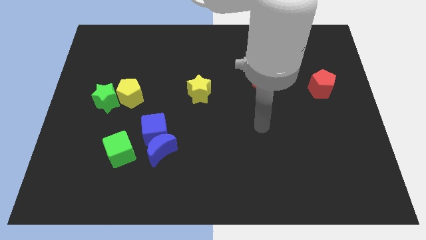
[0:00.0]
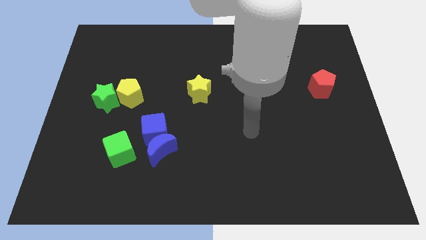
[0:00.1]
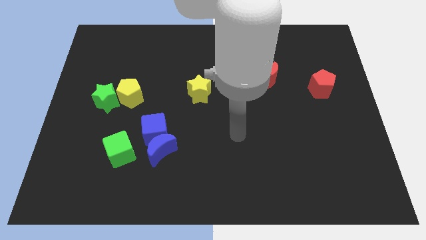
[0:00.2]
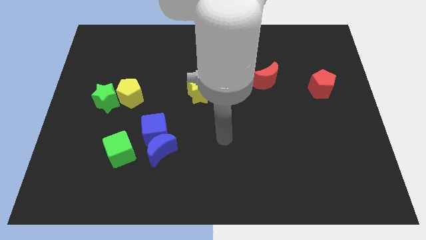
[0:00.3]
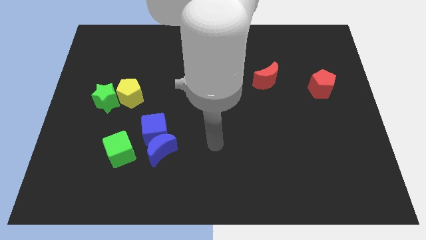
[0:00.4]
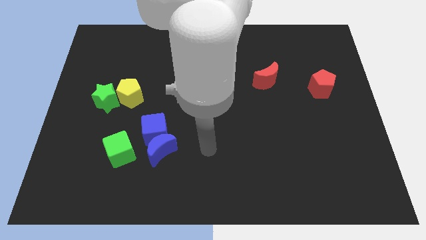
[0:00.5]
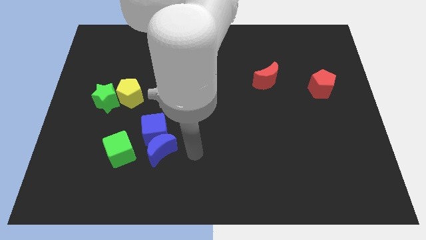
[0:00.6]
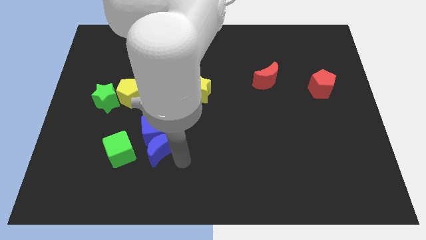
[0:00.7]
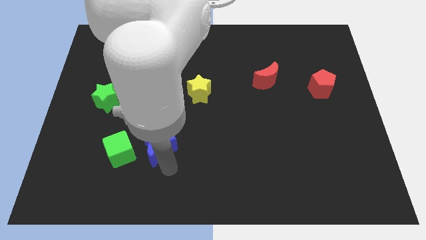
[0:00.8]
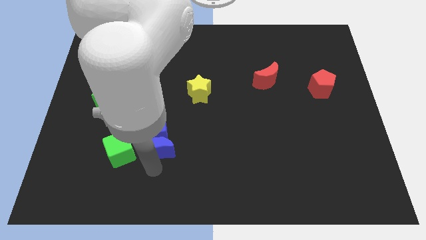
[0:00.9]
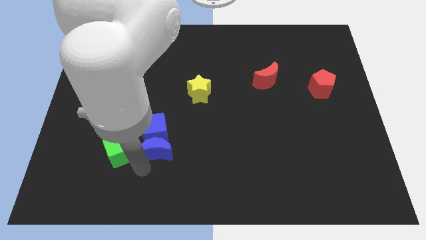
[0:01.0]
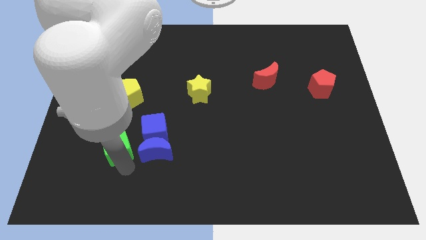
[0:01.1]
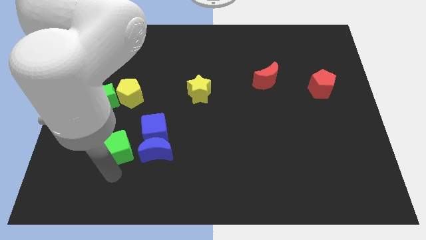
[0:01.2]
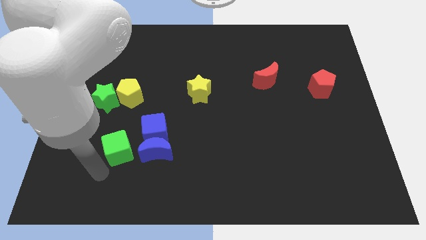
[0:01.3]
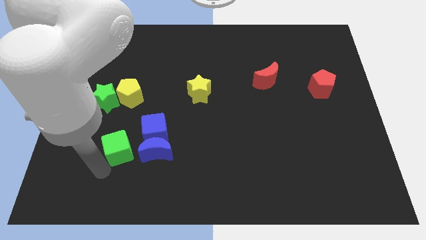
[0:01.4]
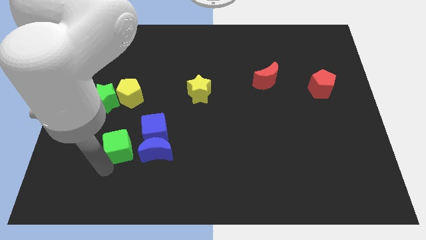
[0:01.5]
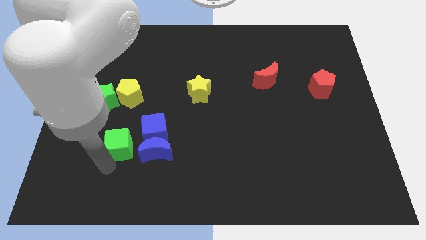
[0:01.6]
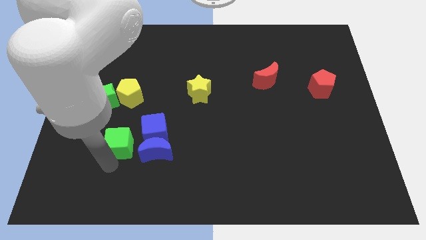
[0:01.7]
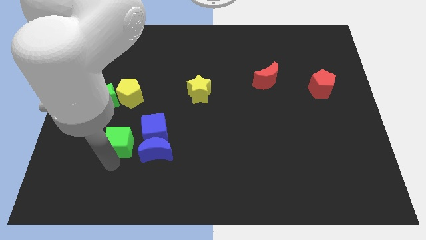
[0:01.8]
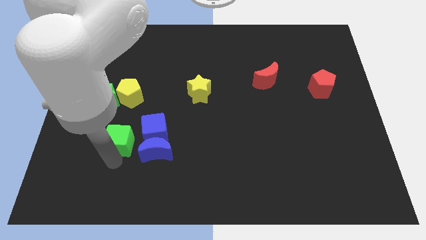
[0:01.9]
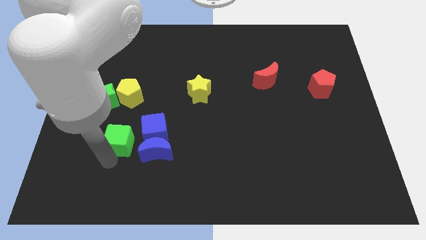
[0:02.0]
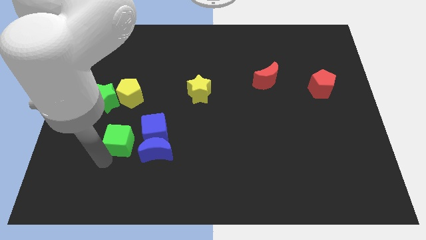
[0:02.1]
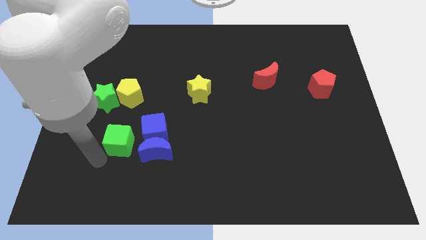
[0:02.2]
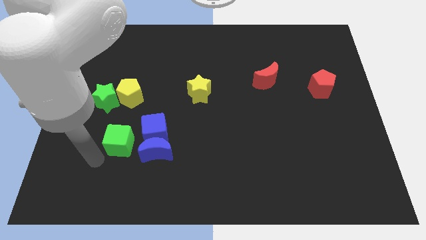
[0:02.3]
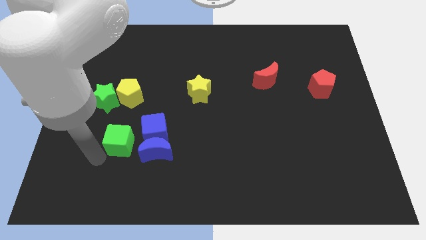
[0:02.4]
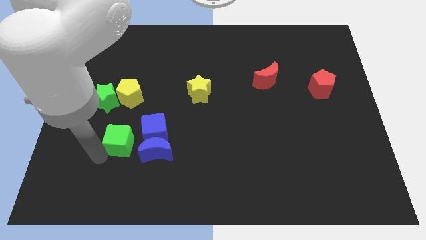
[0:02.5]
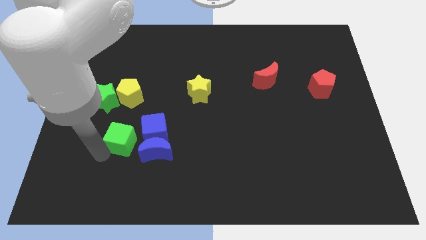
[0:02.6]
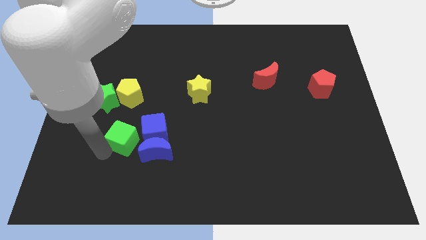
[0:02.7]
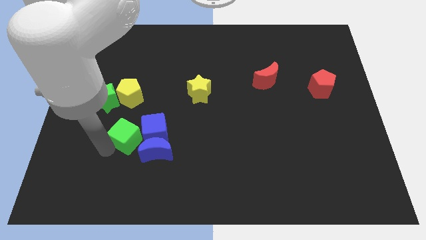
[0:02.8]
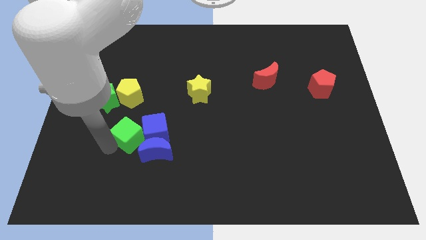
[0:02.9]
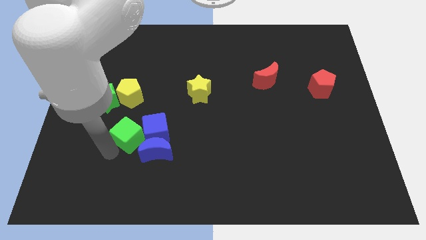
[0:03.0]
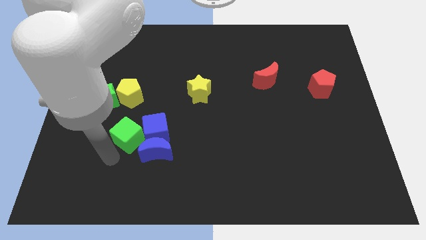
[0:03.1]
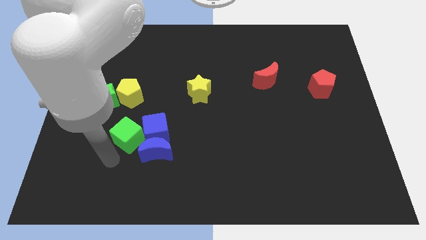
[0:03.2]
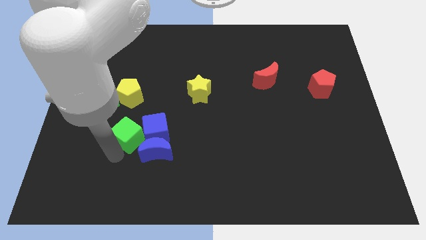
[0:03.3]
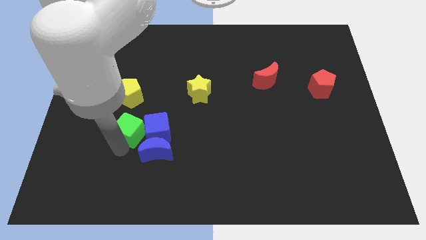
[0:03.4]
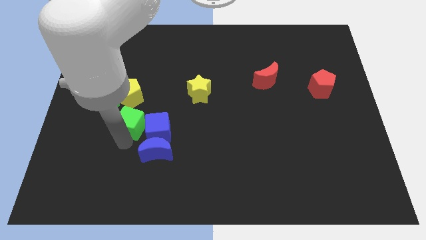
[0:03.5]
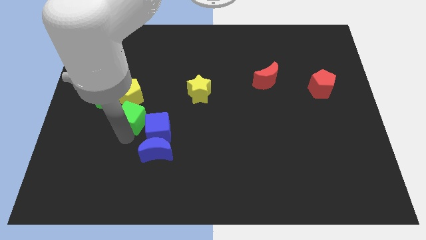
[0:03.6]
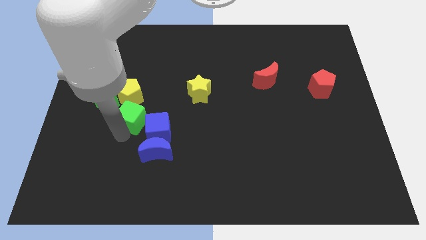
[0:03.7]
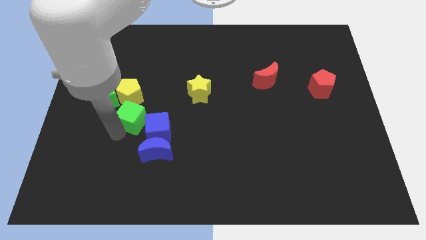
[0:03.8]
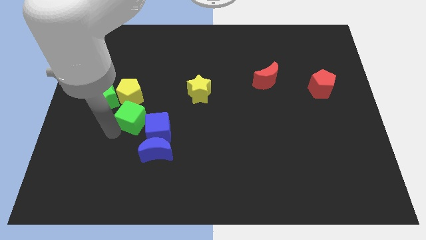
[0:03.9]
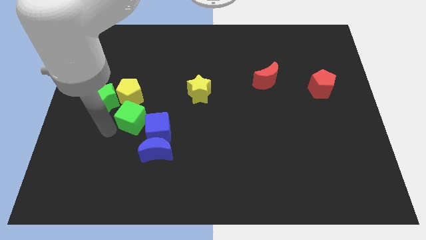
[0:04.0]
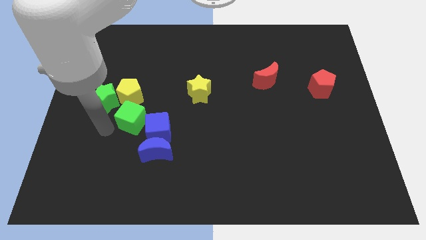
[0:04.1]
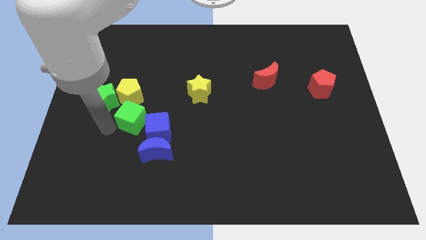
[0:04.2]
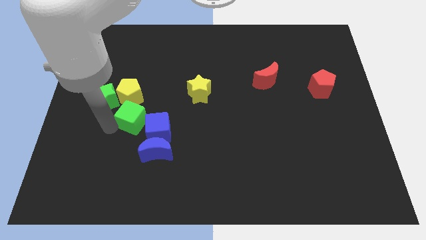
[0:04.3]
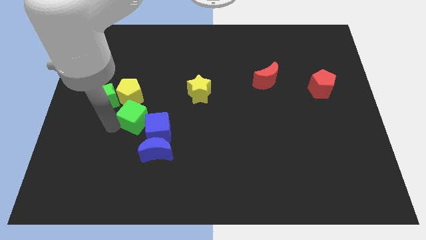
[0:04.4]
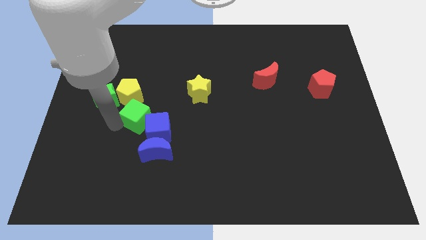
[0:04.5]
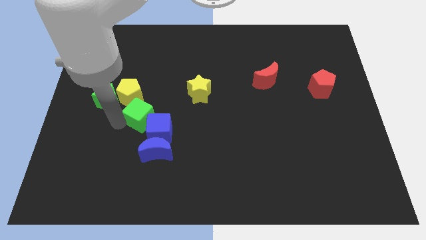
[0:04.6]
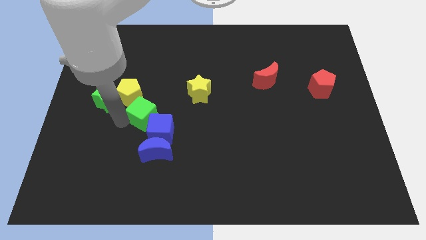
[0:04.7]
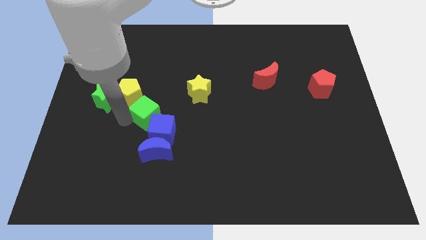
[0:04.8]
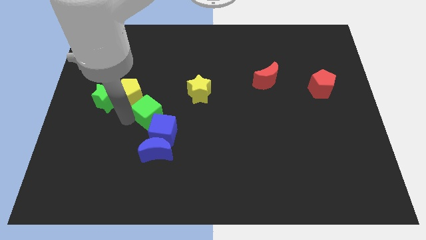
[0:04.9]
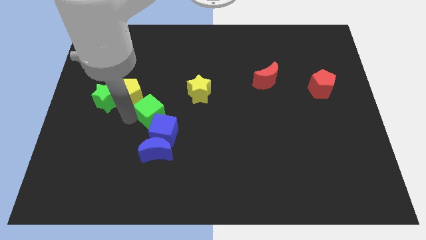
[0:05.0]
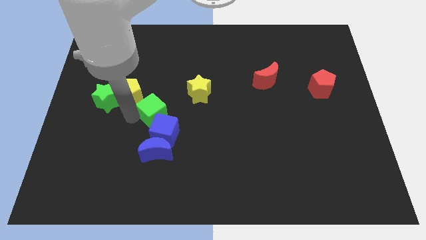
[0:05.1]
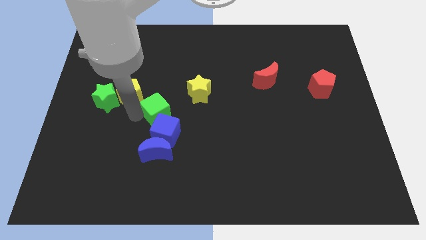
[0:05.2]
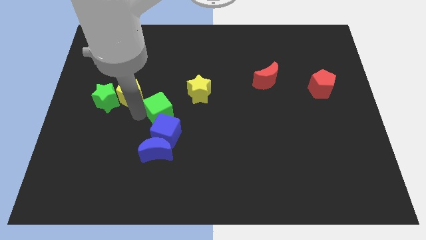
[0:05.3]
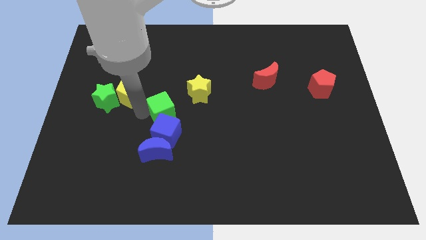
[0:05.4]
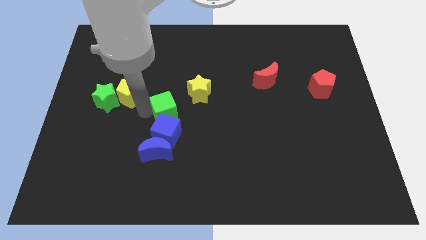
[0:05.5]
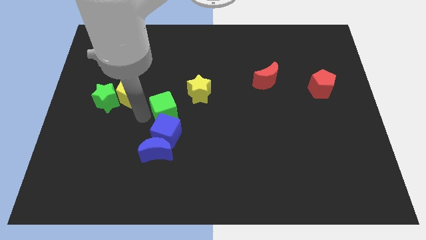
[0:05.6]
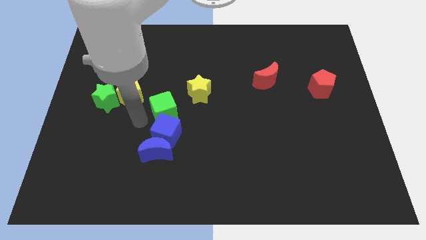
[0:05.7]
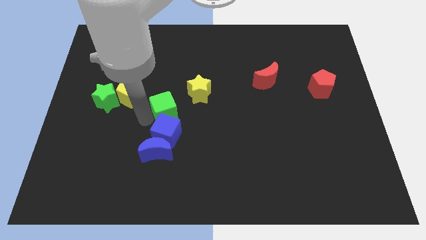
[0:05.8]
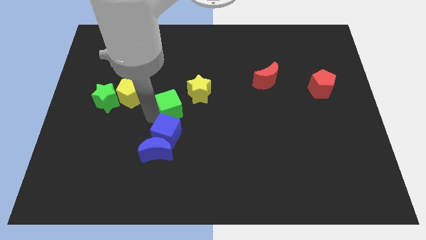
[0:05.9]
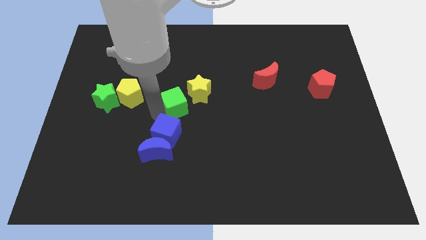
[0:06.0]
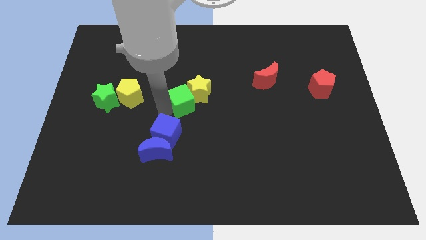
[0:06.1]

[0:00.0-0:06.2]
push the green cube towards the yellow star

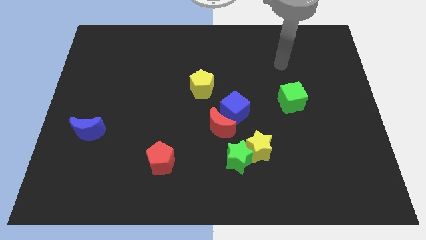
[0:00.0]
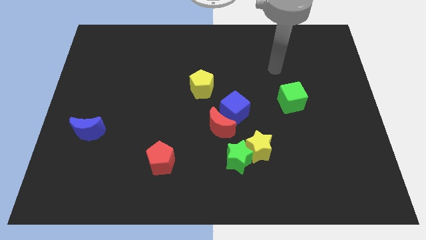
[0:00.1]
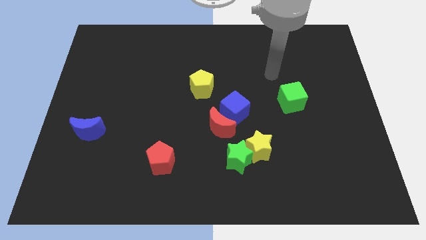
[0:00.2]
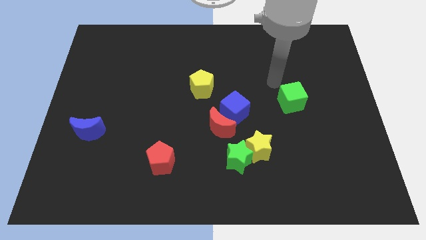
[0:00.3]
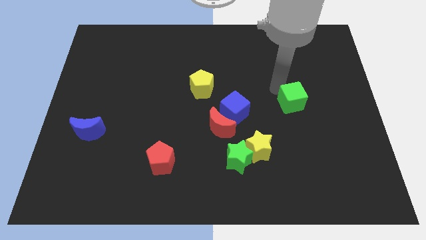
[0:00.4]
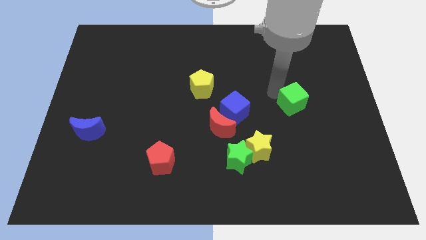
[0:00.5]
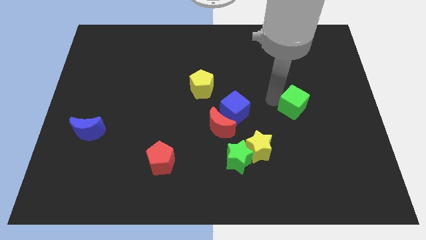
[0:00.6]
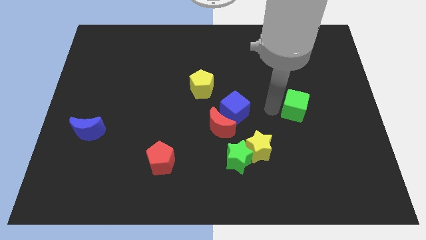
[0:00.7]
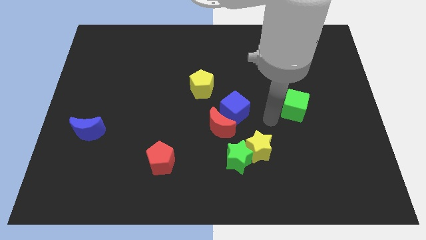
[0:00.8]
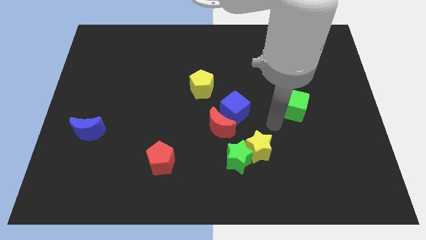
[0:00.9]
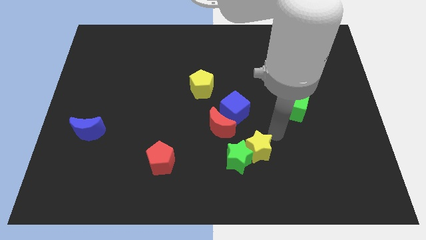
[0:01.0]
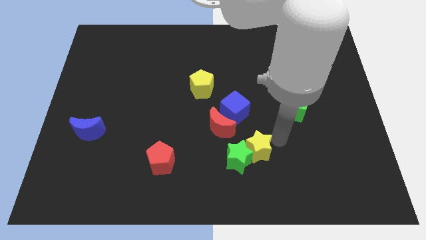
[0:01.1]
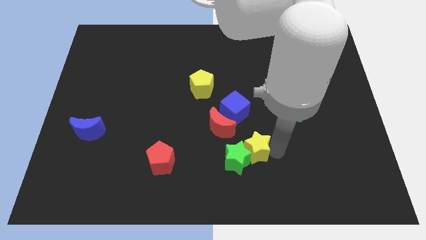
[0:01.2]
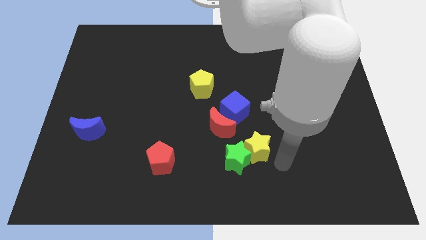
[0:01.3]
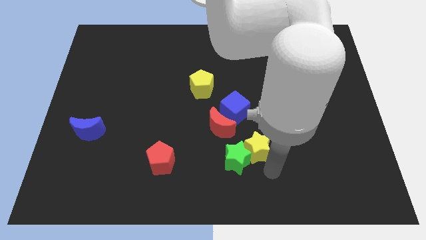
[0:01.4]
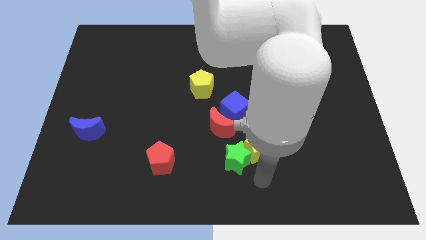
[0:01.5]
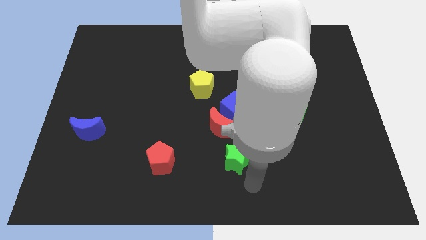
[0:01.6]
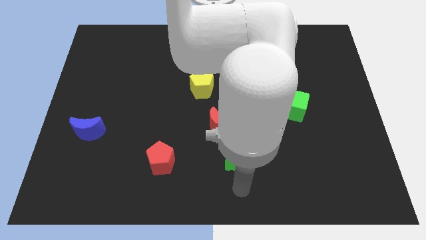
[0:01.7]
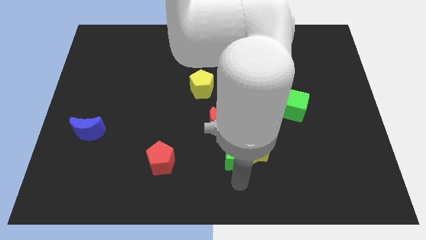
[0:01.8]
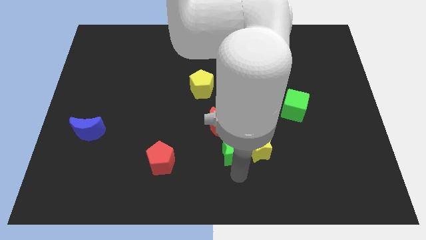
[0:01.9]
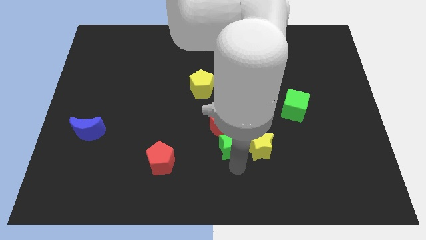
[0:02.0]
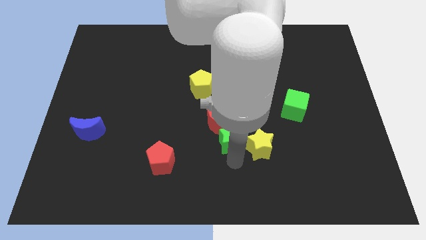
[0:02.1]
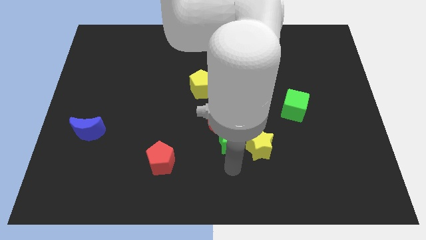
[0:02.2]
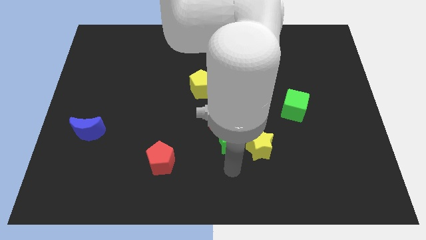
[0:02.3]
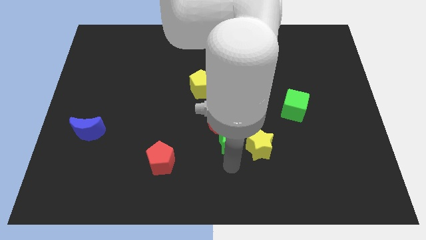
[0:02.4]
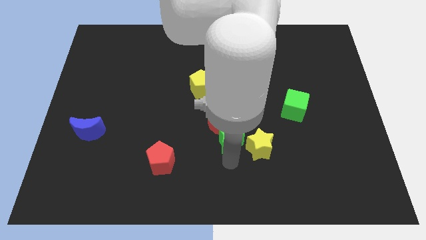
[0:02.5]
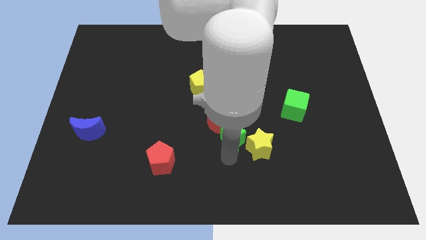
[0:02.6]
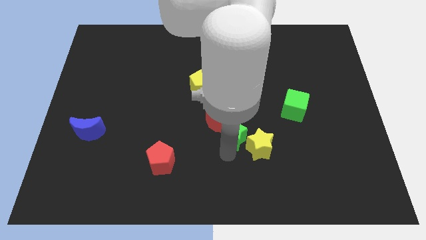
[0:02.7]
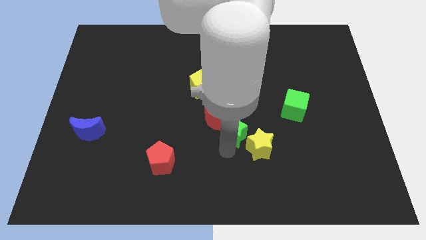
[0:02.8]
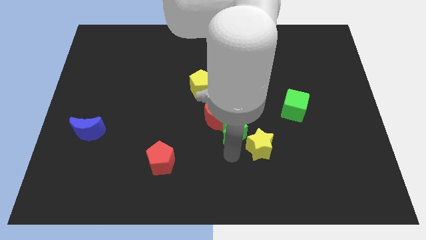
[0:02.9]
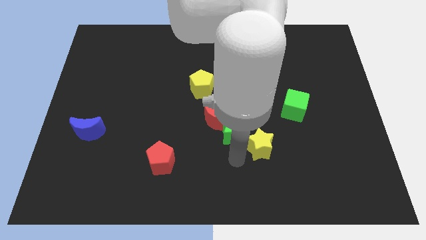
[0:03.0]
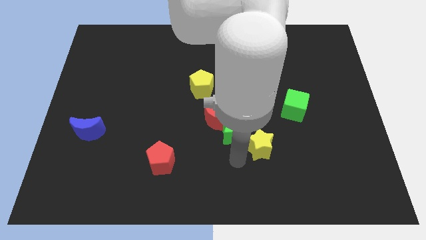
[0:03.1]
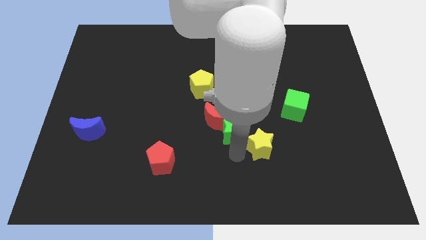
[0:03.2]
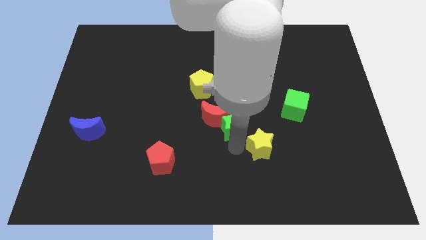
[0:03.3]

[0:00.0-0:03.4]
push the green star towards the blue cube
